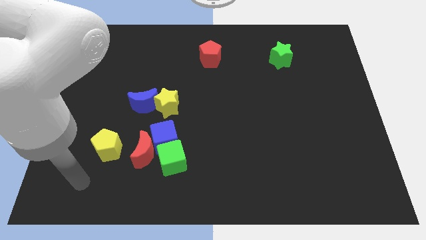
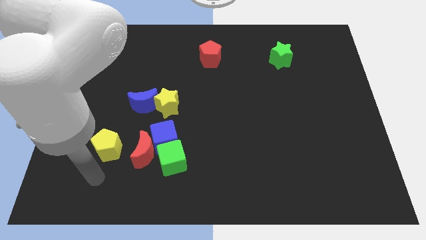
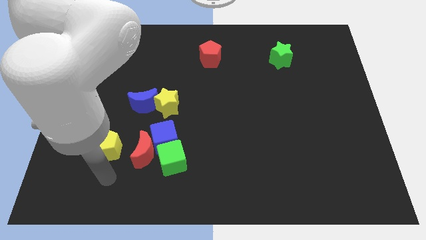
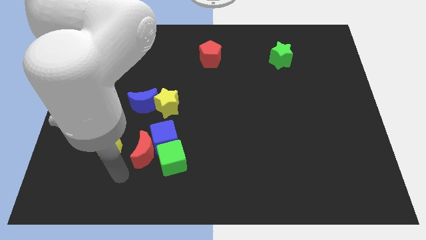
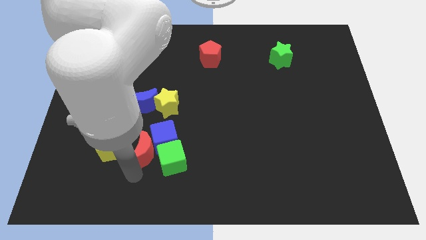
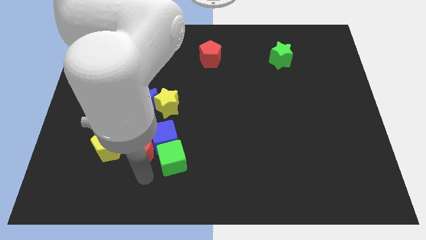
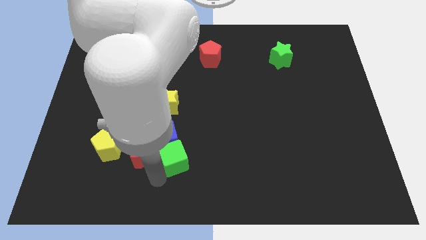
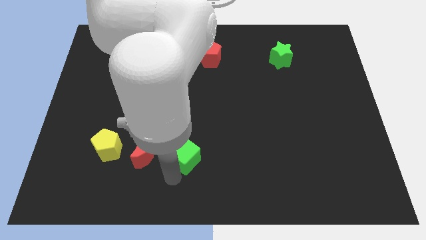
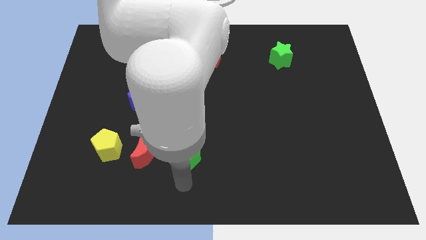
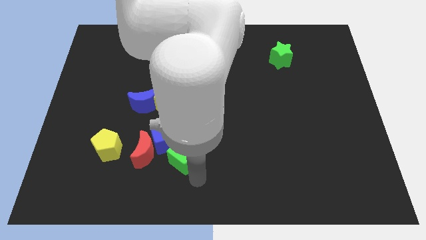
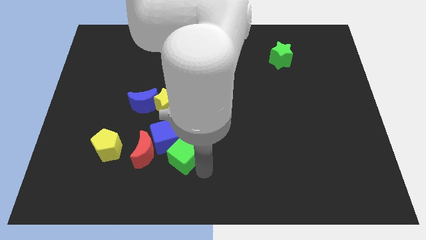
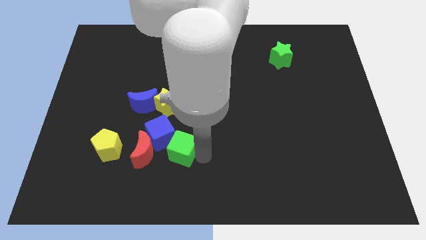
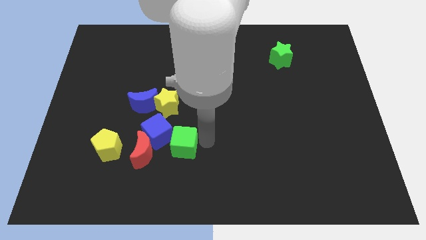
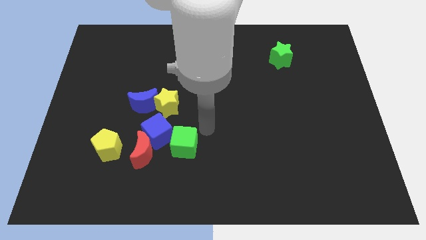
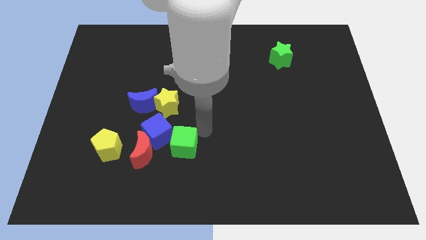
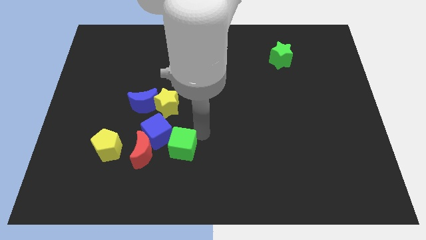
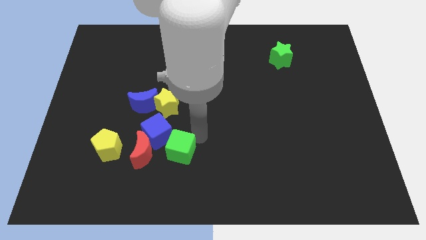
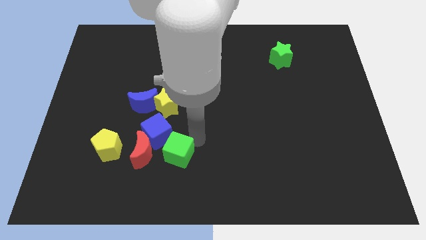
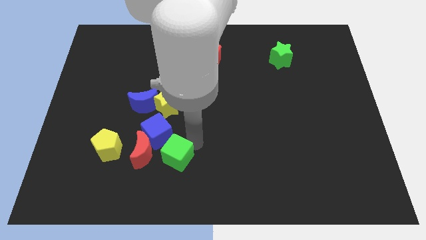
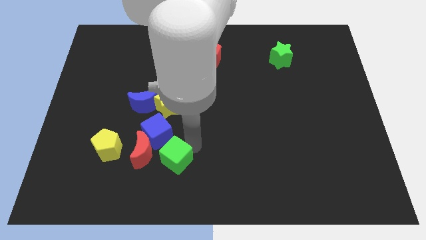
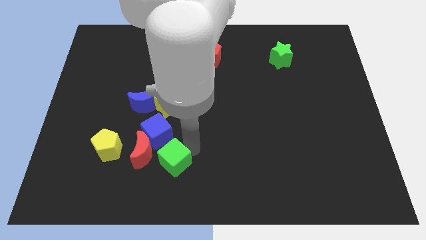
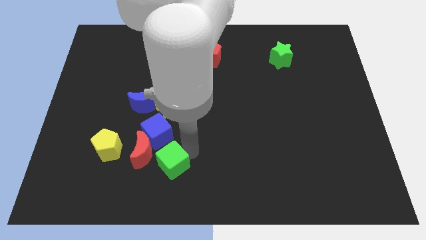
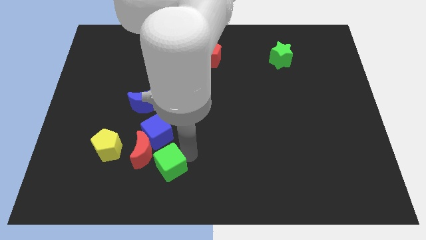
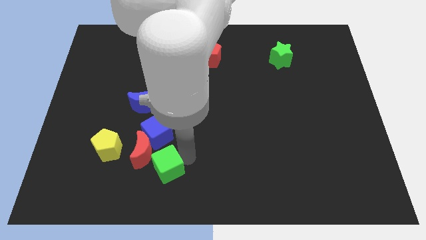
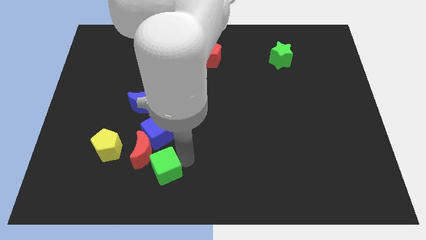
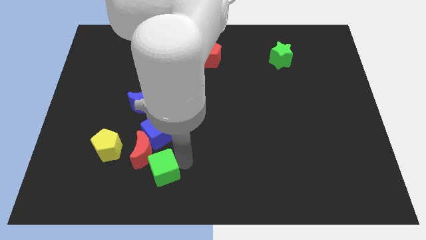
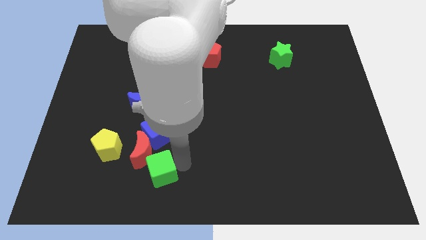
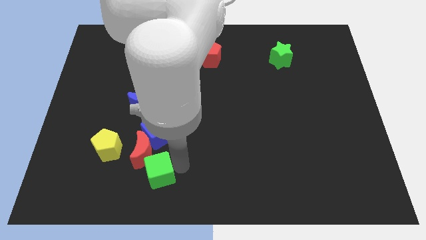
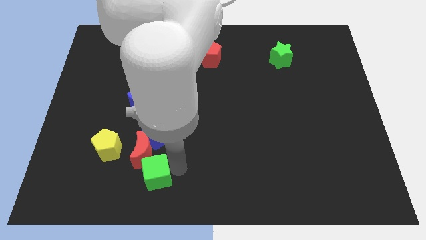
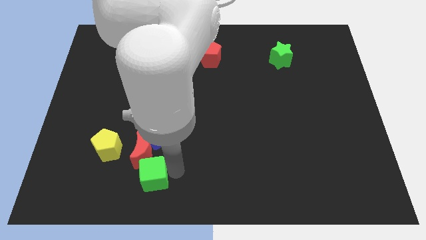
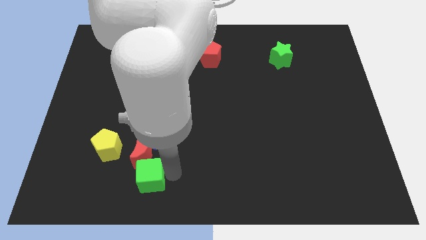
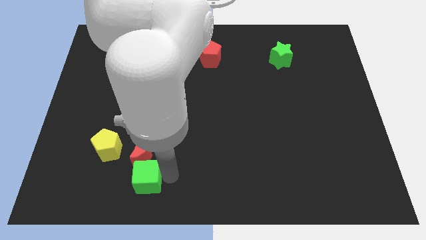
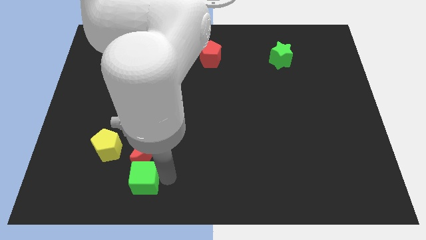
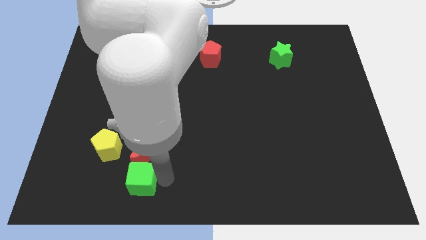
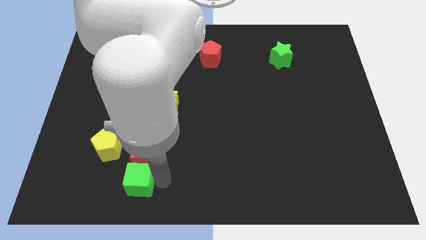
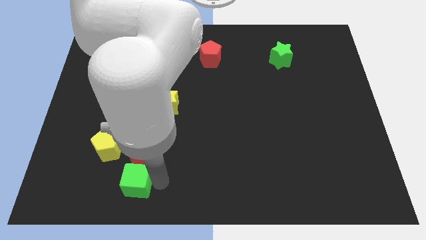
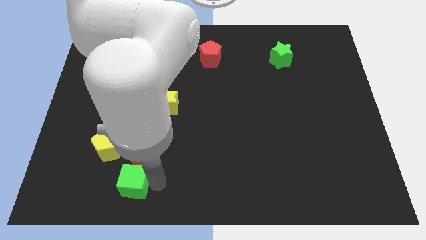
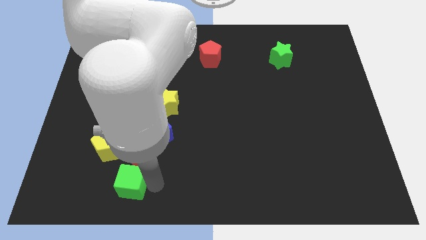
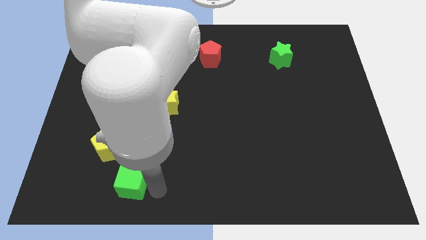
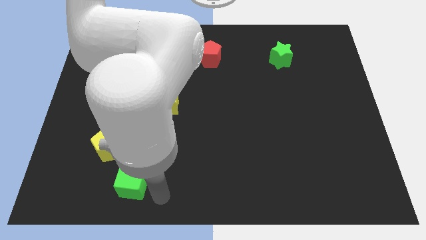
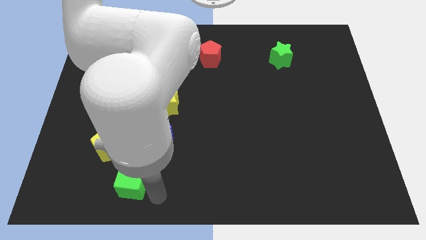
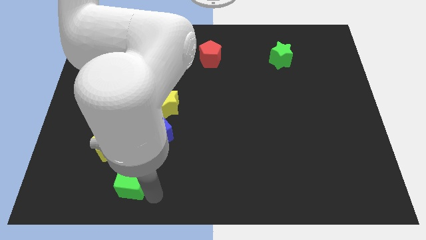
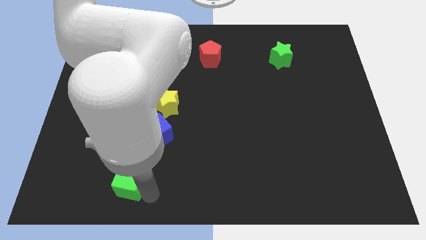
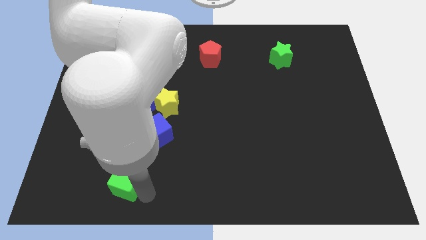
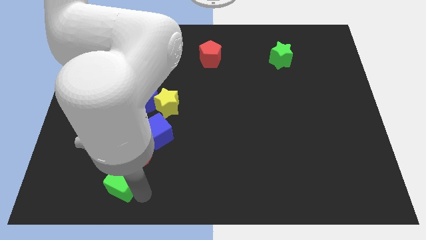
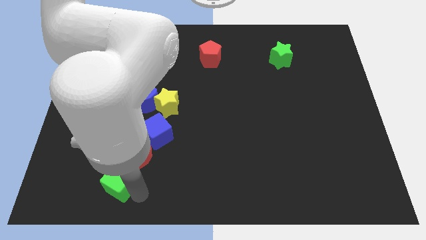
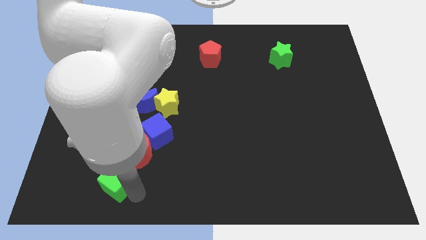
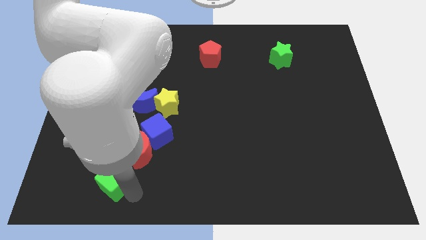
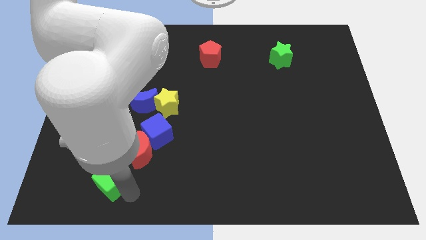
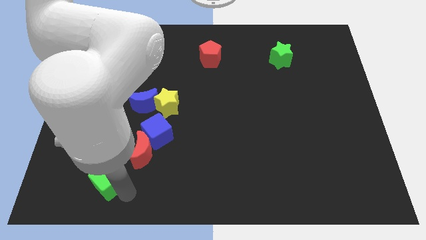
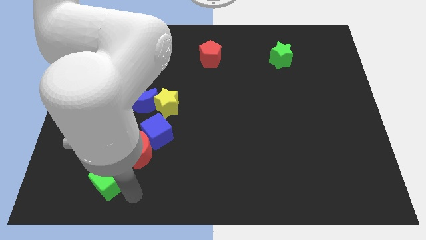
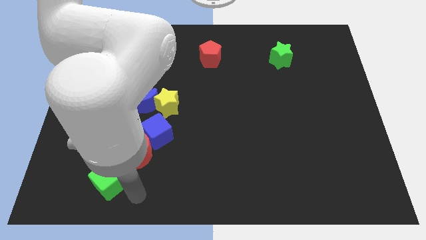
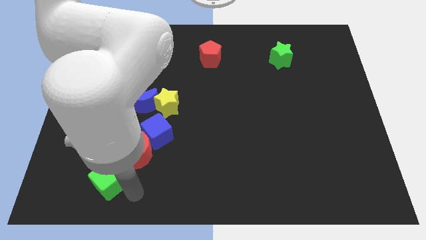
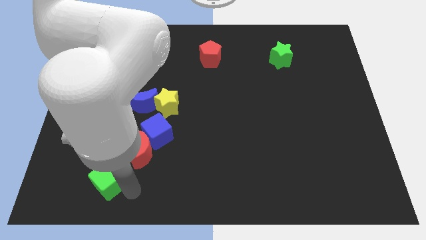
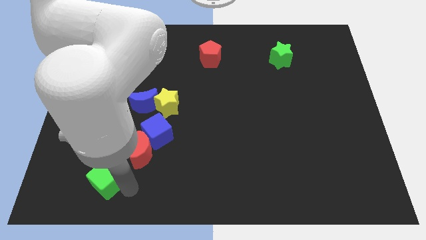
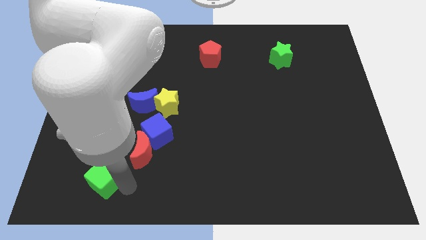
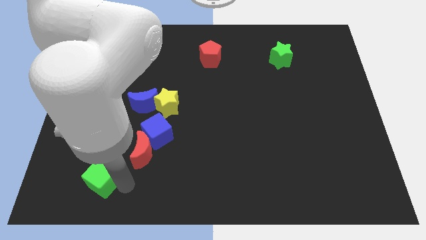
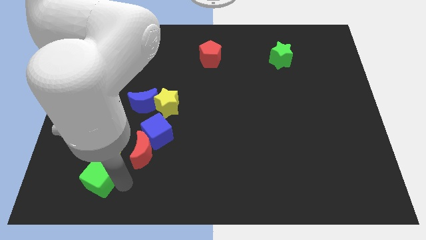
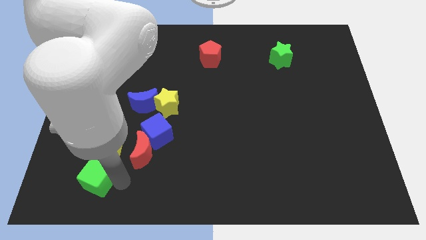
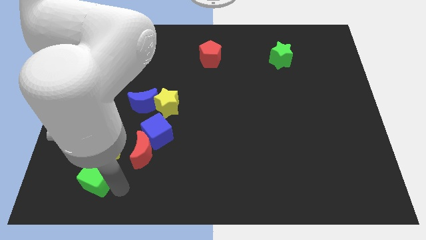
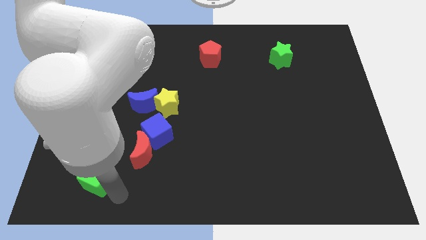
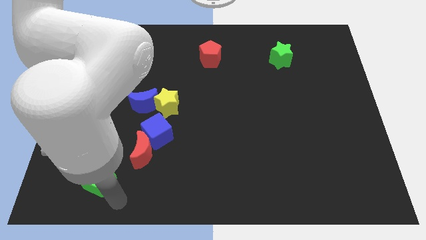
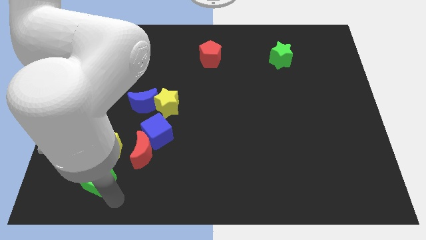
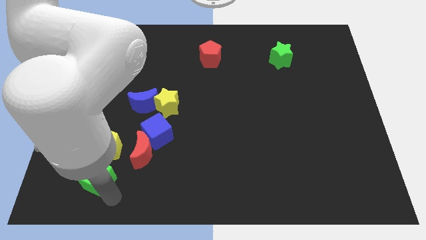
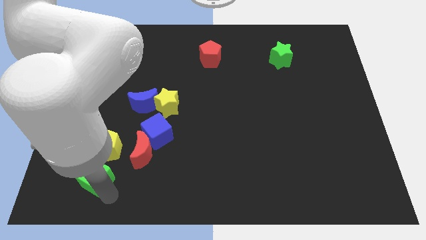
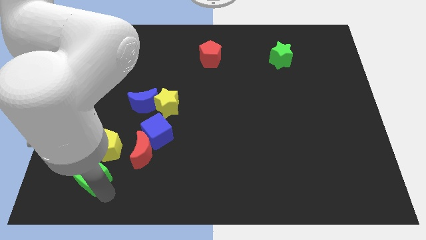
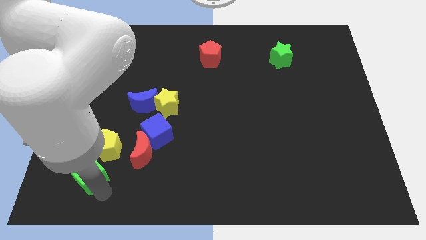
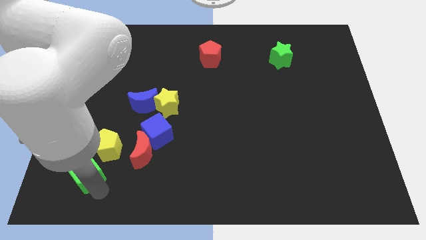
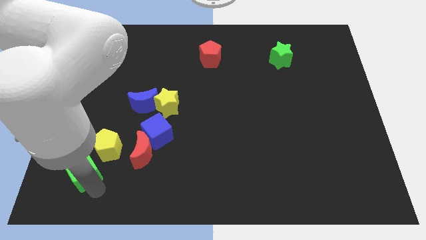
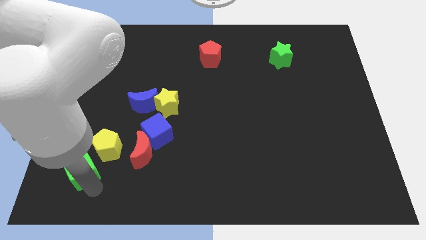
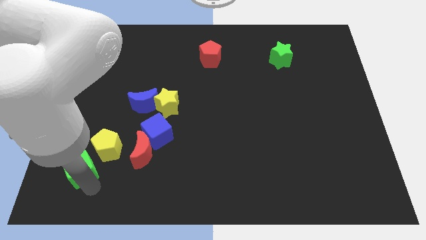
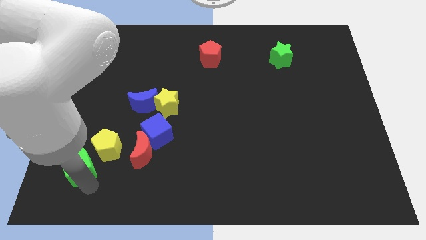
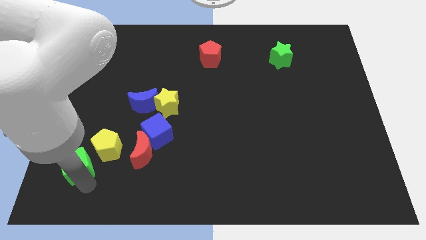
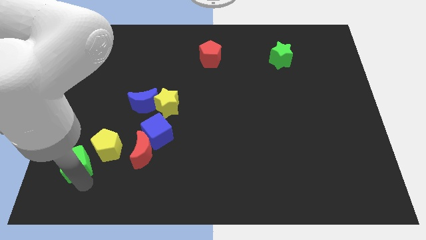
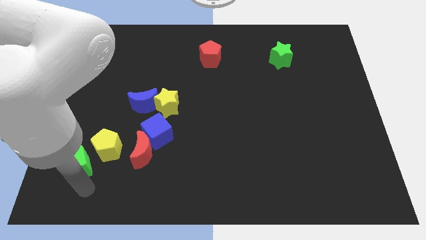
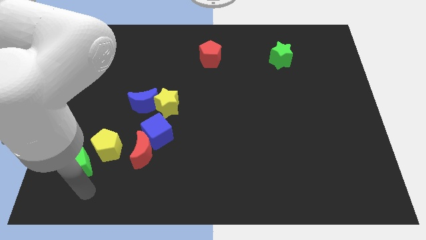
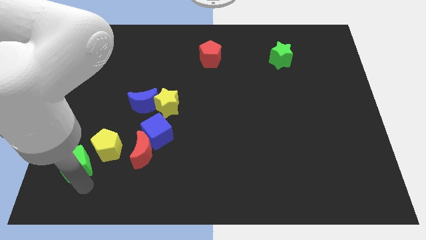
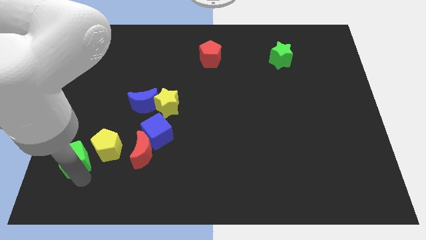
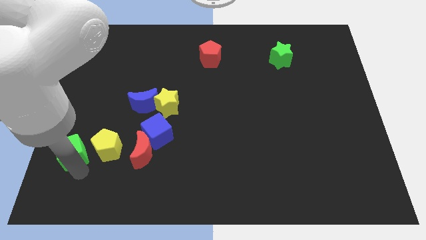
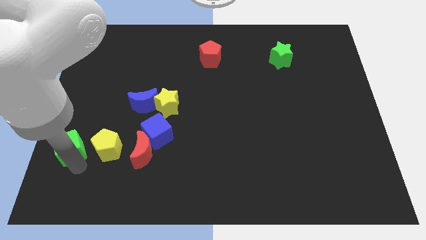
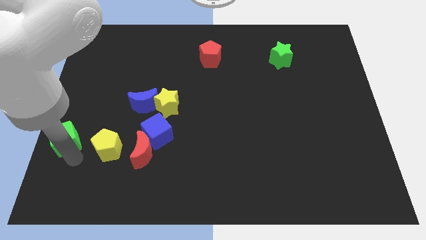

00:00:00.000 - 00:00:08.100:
slide the green cube to the left side
